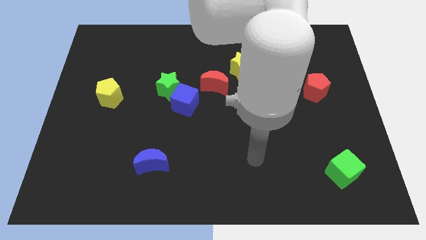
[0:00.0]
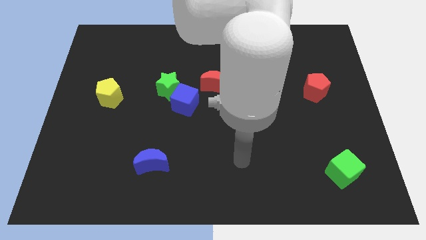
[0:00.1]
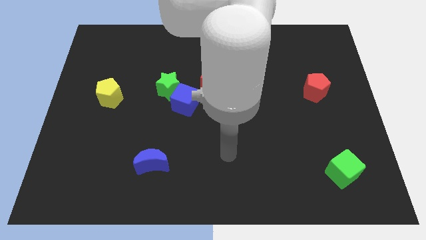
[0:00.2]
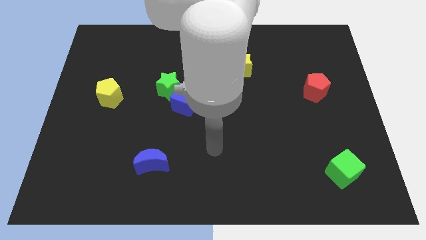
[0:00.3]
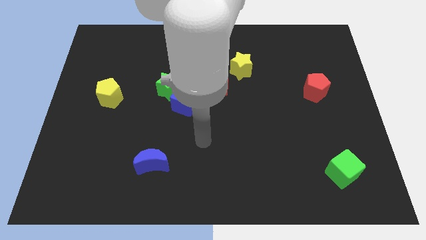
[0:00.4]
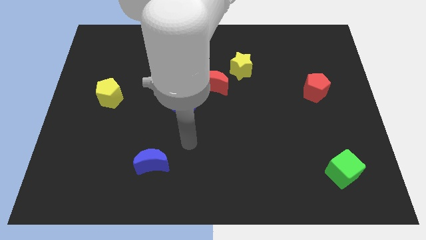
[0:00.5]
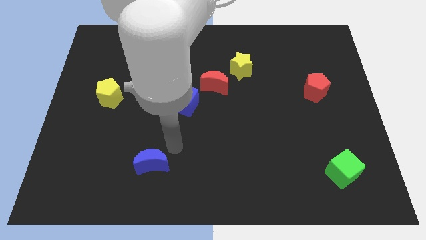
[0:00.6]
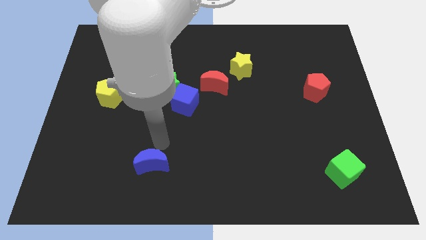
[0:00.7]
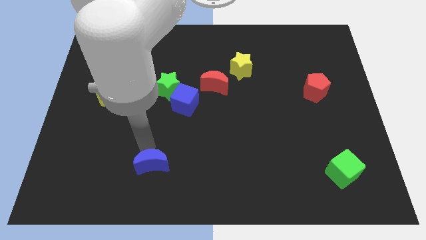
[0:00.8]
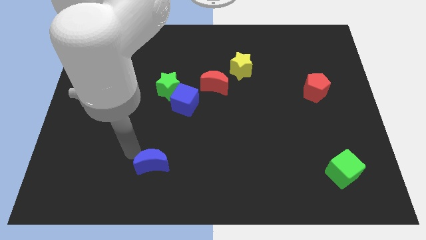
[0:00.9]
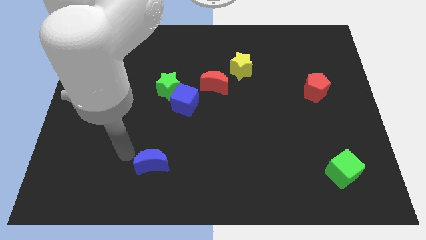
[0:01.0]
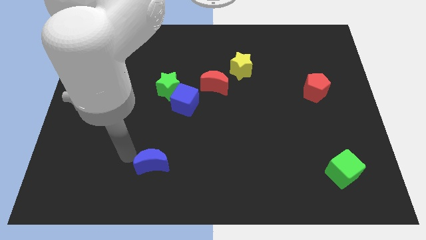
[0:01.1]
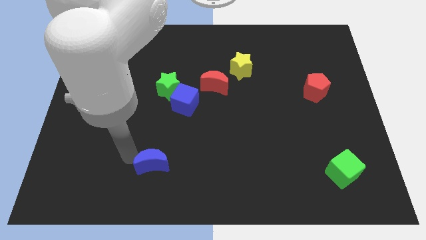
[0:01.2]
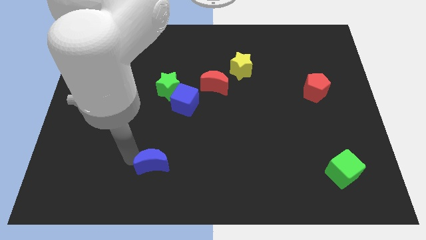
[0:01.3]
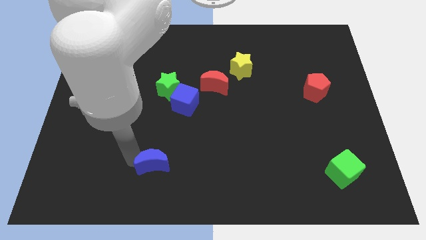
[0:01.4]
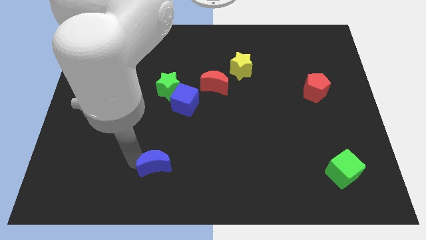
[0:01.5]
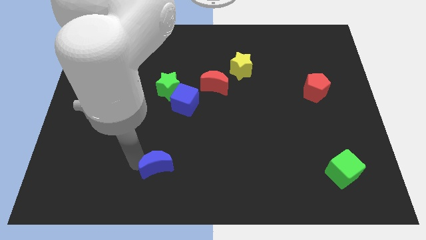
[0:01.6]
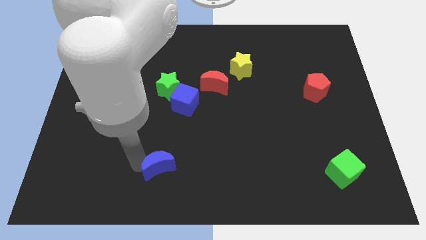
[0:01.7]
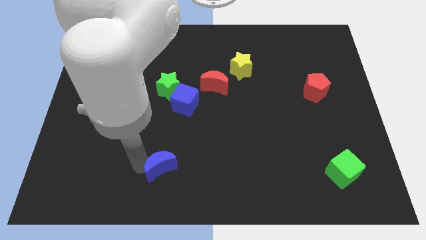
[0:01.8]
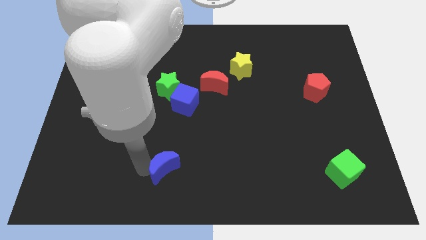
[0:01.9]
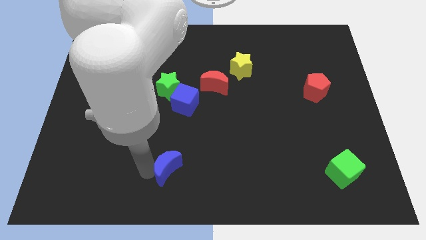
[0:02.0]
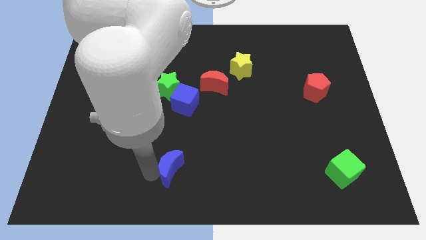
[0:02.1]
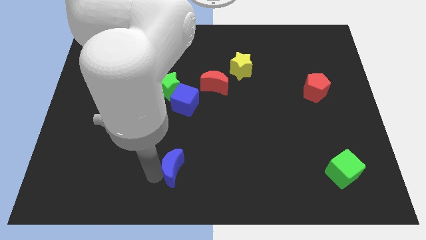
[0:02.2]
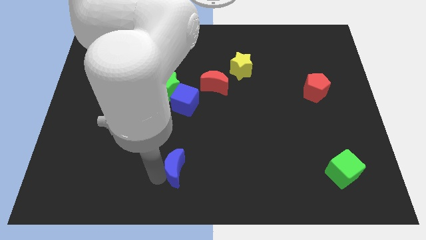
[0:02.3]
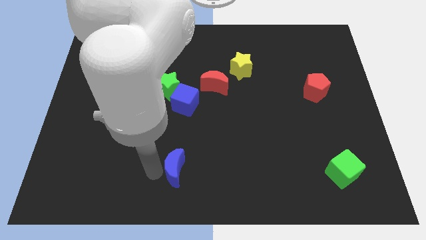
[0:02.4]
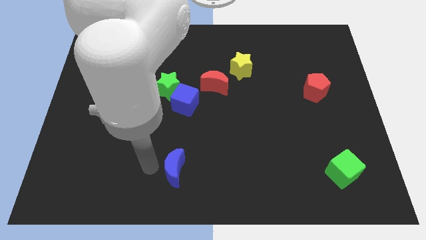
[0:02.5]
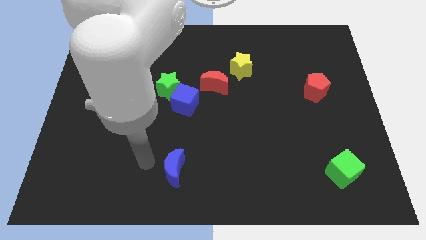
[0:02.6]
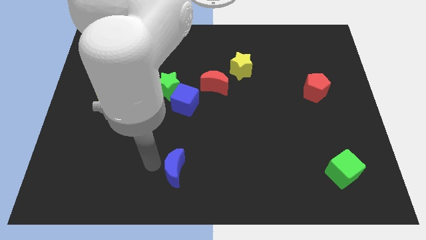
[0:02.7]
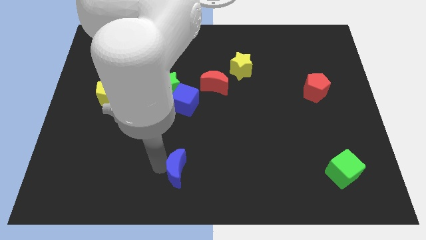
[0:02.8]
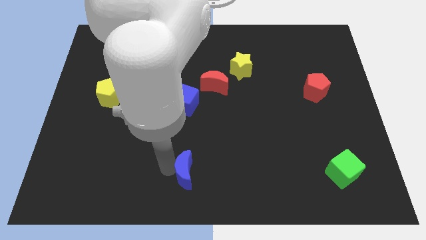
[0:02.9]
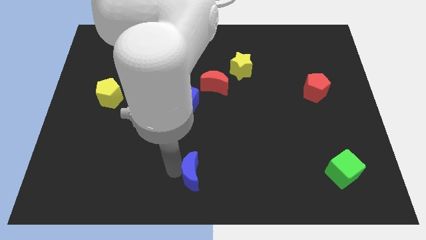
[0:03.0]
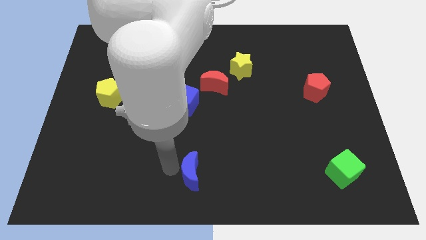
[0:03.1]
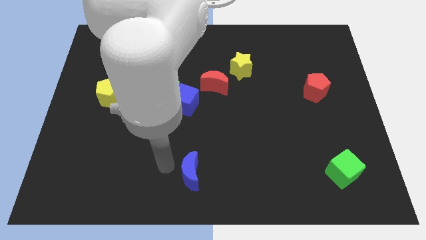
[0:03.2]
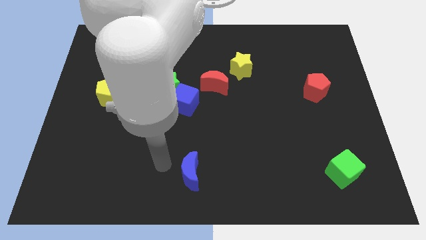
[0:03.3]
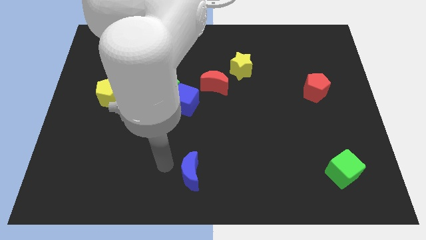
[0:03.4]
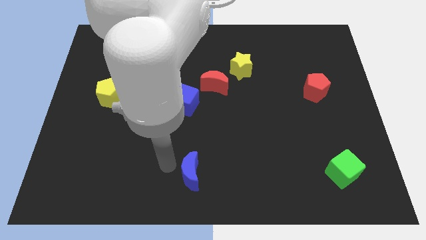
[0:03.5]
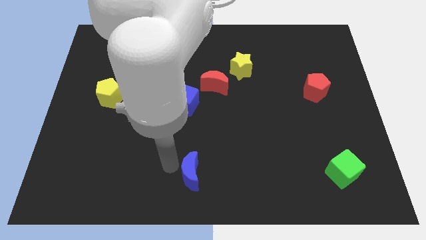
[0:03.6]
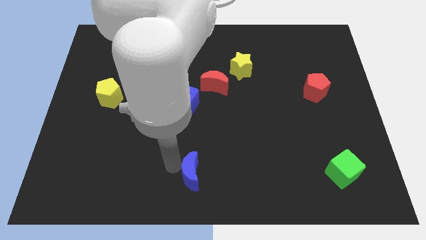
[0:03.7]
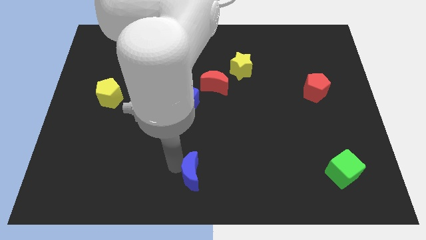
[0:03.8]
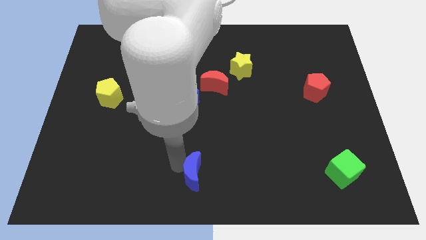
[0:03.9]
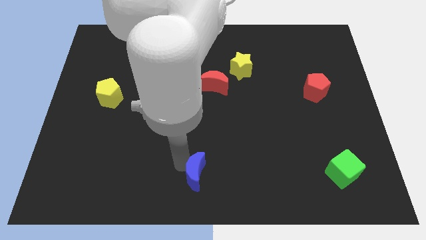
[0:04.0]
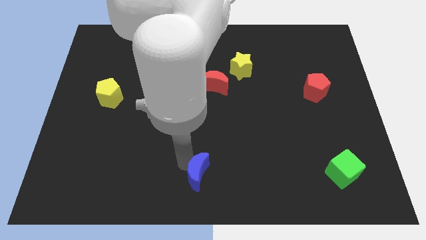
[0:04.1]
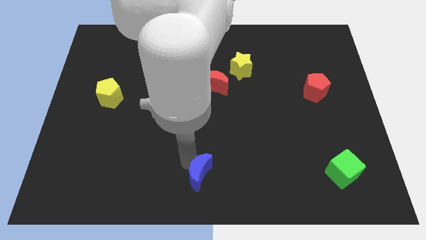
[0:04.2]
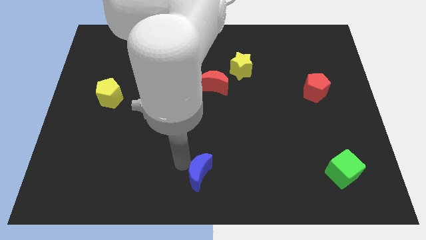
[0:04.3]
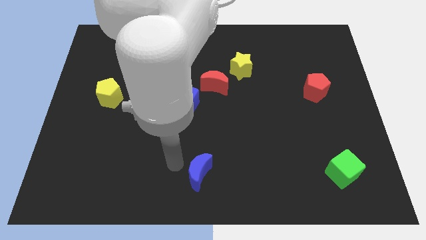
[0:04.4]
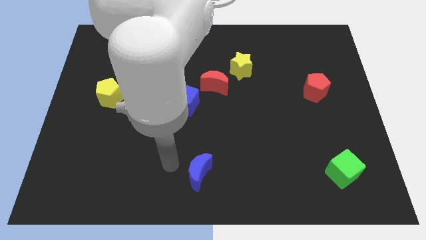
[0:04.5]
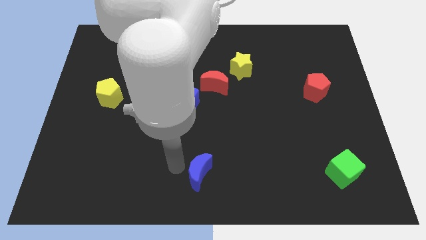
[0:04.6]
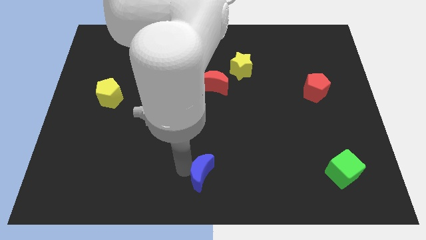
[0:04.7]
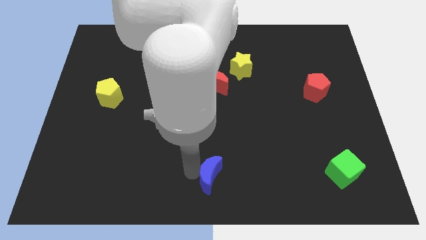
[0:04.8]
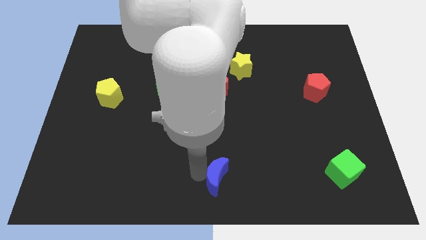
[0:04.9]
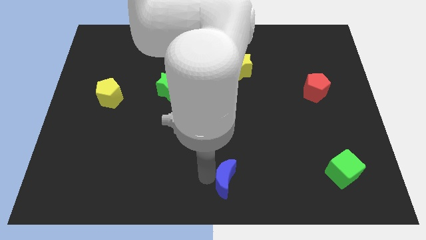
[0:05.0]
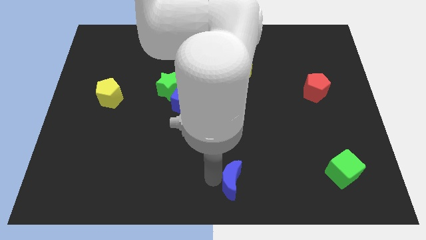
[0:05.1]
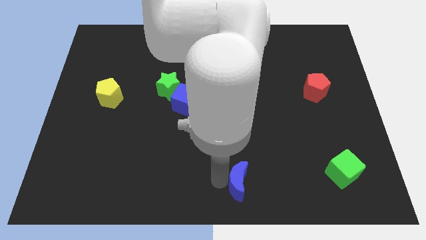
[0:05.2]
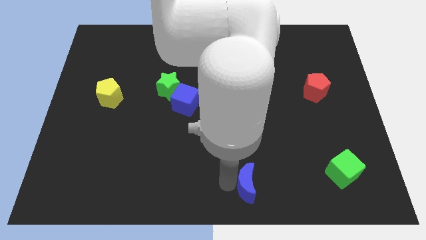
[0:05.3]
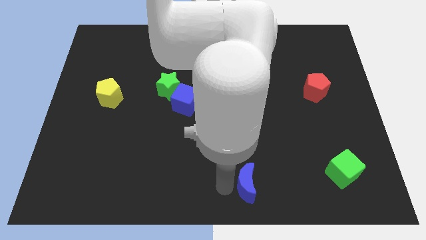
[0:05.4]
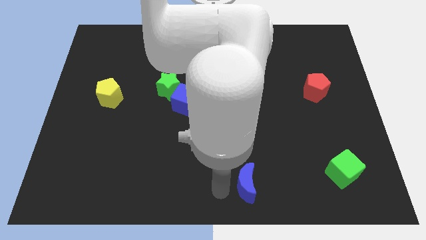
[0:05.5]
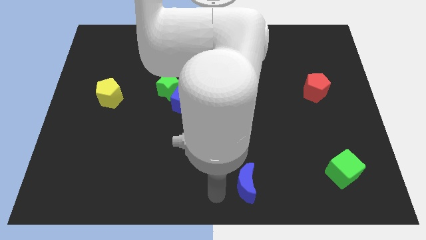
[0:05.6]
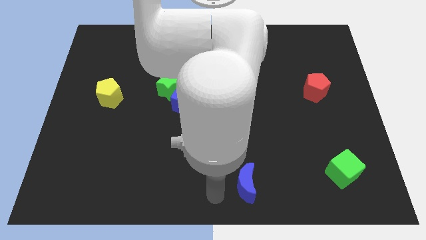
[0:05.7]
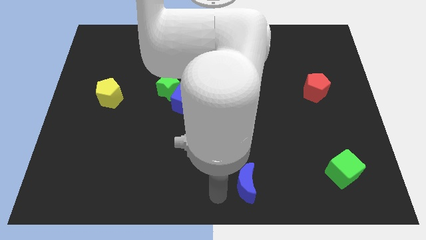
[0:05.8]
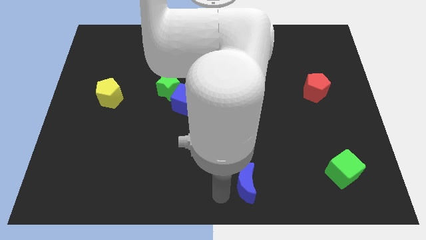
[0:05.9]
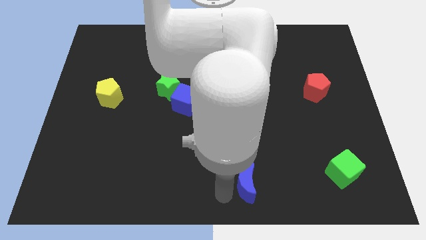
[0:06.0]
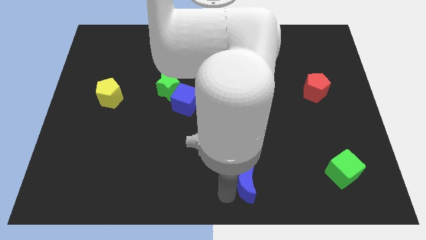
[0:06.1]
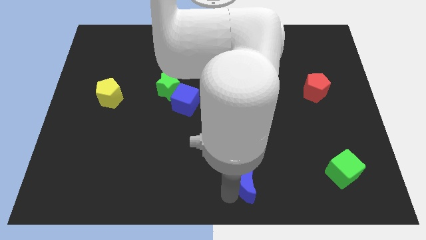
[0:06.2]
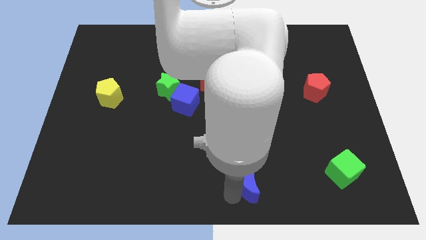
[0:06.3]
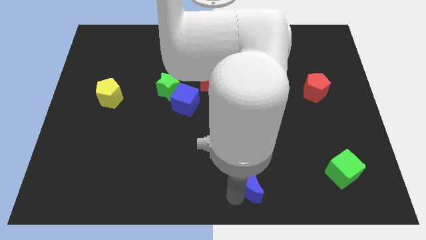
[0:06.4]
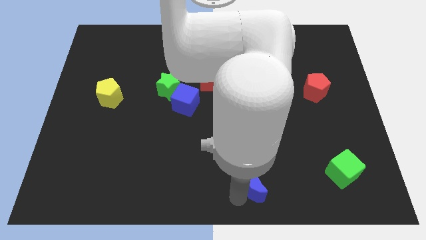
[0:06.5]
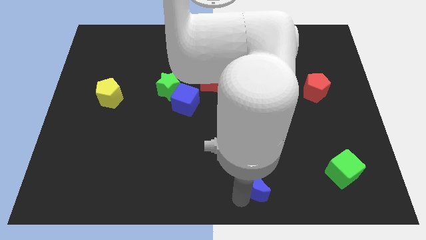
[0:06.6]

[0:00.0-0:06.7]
push the blue moon right

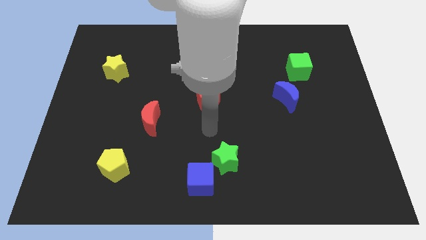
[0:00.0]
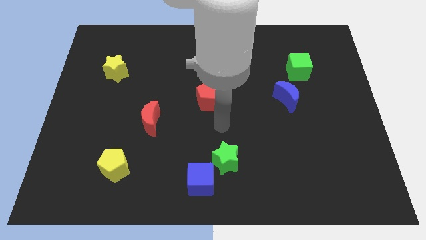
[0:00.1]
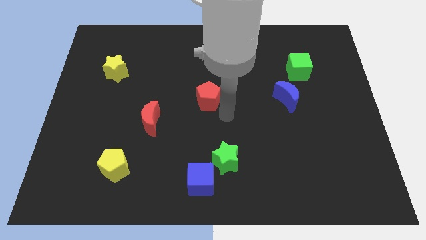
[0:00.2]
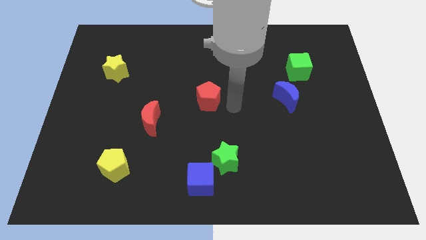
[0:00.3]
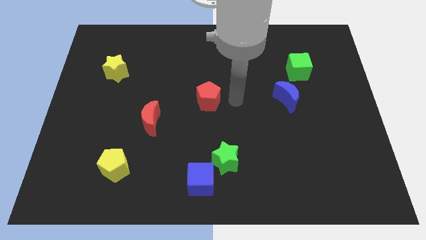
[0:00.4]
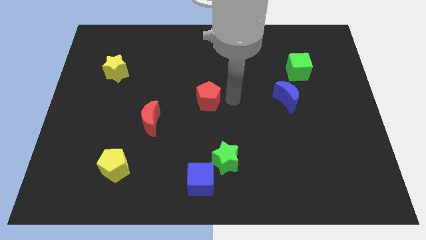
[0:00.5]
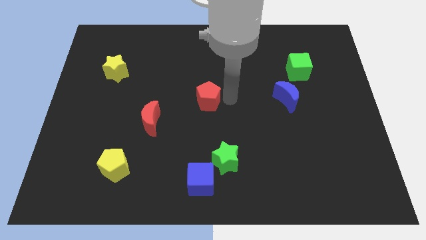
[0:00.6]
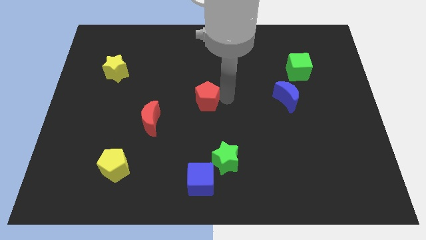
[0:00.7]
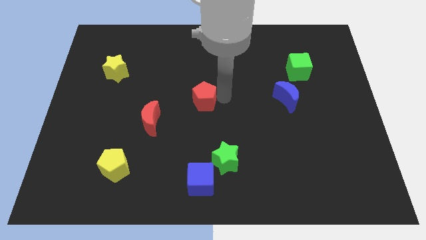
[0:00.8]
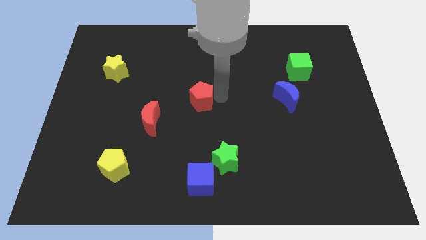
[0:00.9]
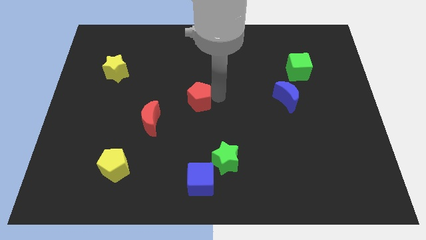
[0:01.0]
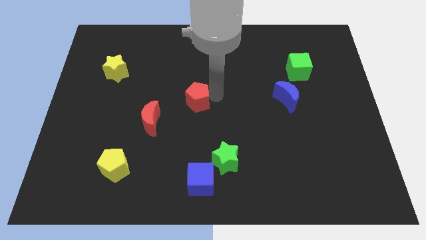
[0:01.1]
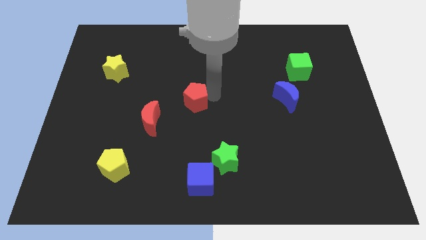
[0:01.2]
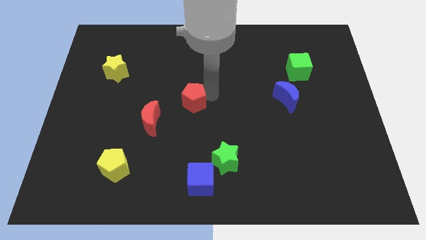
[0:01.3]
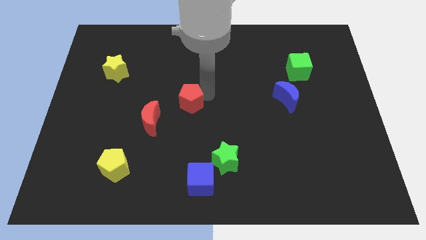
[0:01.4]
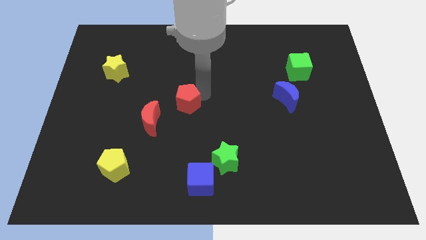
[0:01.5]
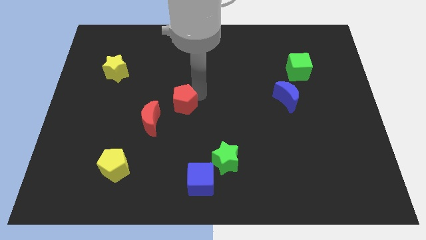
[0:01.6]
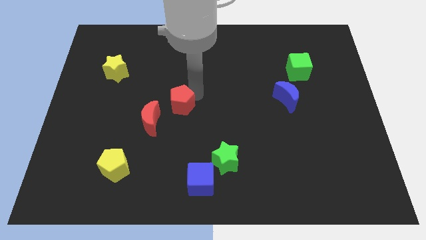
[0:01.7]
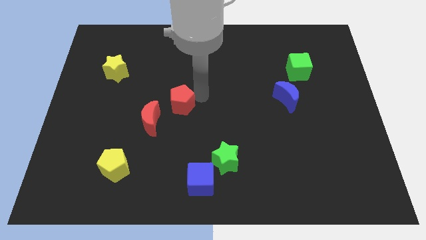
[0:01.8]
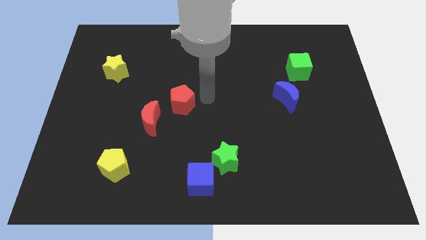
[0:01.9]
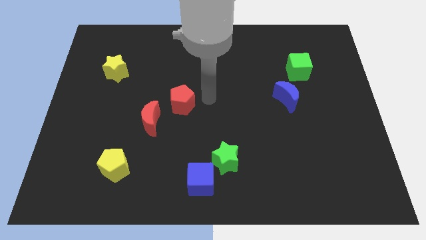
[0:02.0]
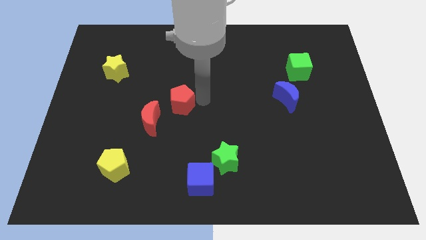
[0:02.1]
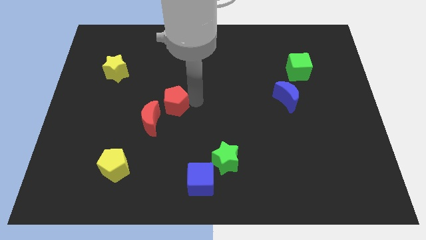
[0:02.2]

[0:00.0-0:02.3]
push the red pentagon somewhat to the left
